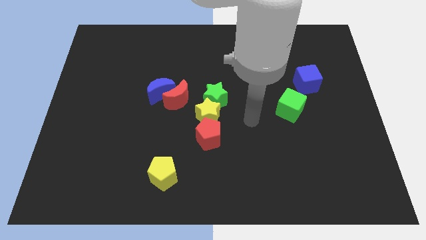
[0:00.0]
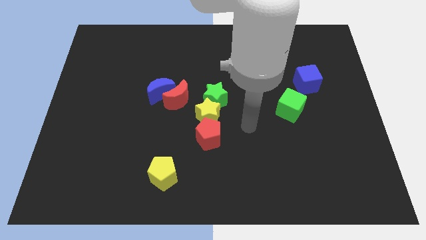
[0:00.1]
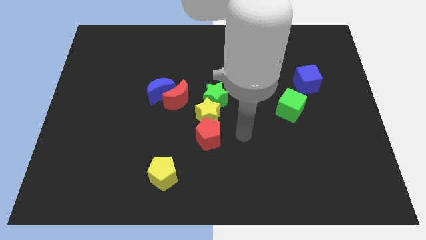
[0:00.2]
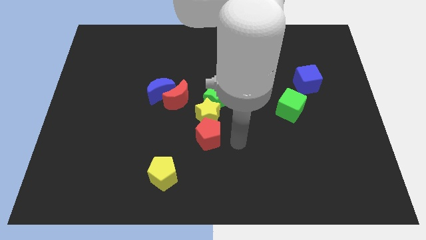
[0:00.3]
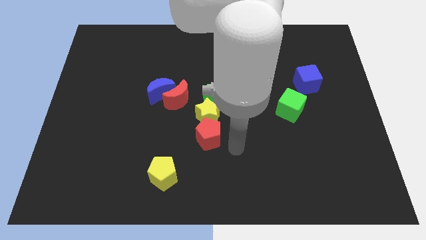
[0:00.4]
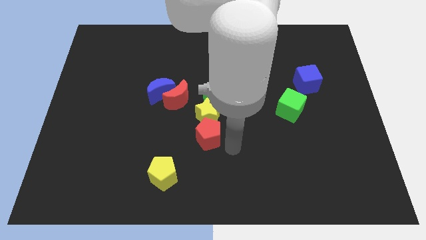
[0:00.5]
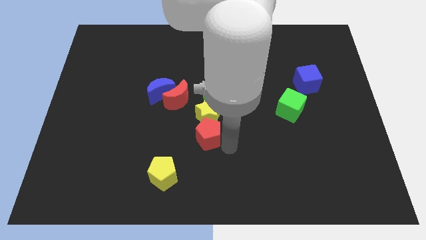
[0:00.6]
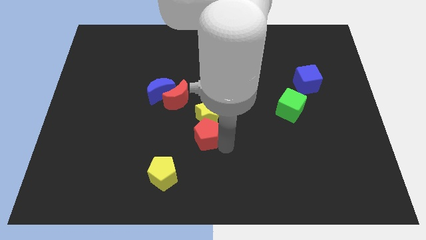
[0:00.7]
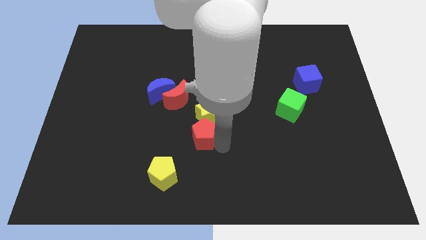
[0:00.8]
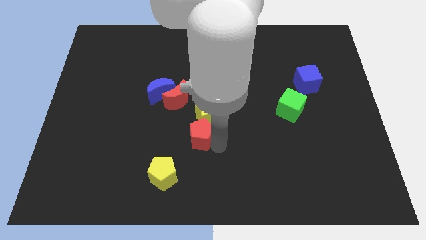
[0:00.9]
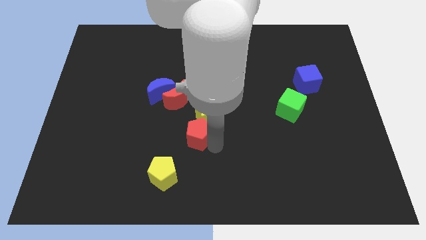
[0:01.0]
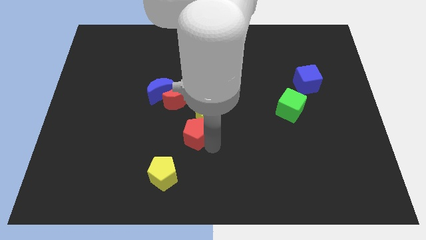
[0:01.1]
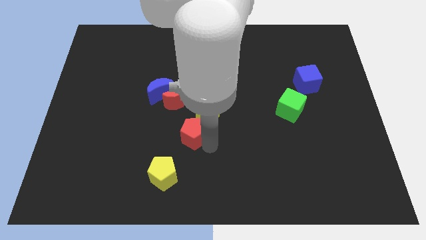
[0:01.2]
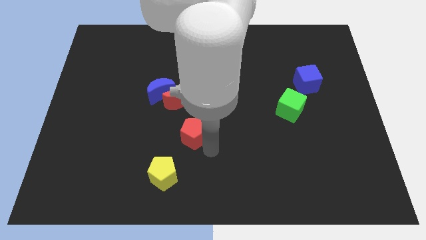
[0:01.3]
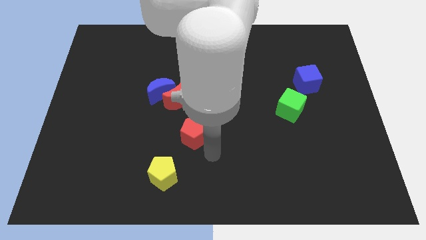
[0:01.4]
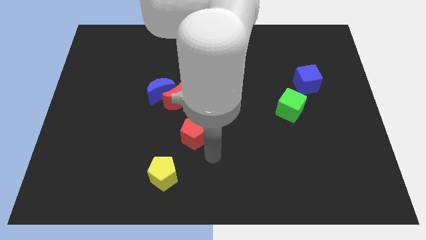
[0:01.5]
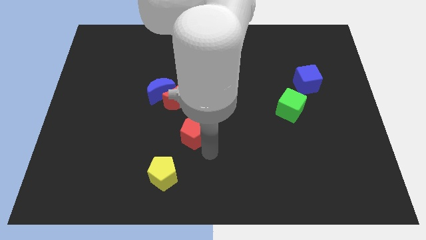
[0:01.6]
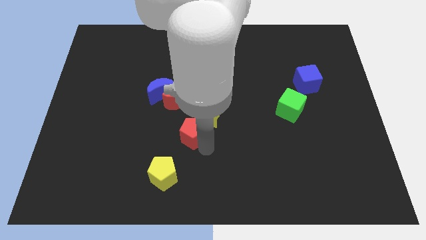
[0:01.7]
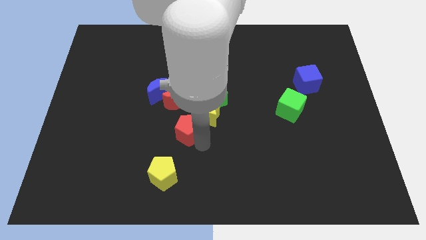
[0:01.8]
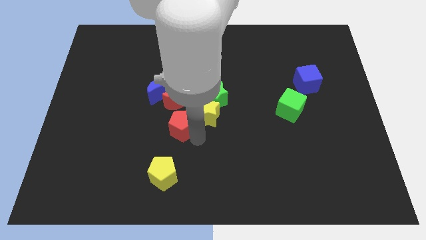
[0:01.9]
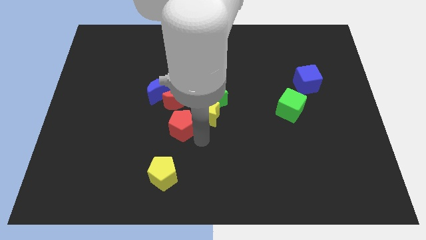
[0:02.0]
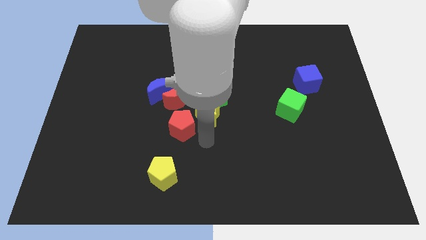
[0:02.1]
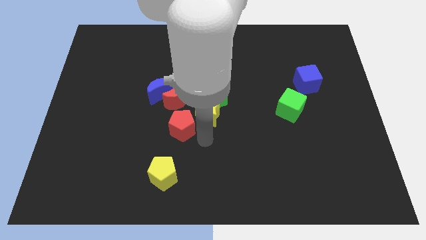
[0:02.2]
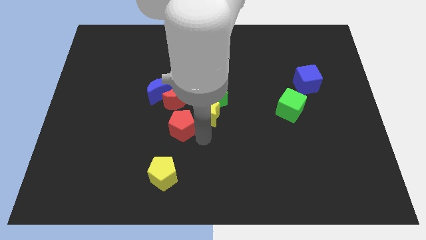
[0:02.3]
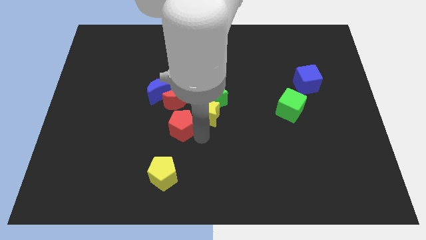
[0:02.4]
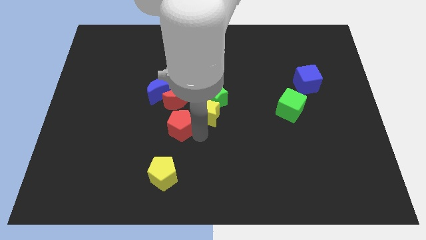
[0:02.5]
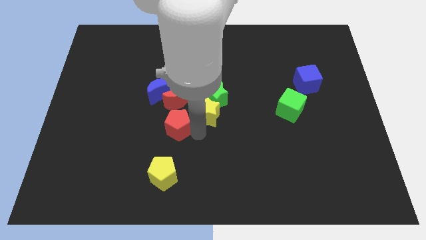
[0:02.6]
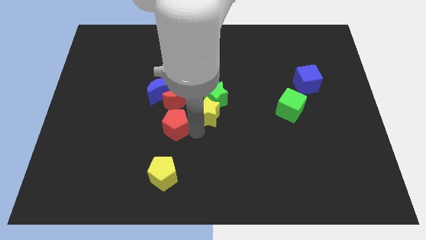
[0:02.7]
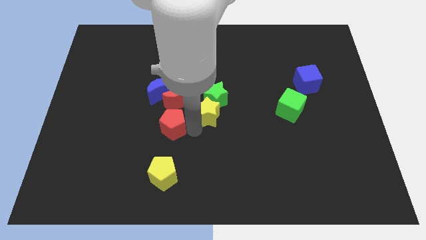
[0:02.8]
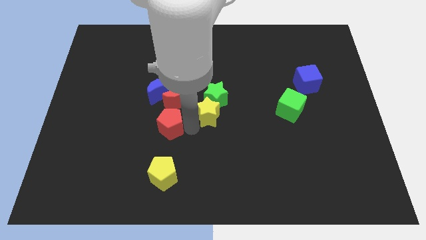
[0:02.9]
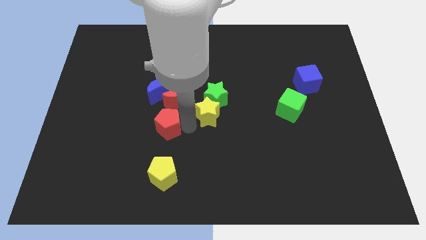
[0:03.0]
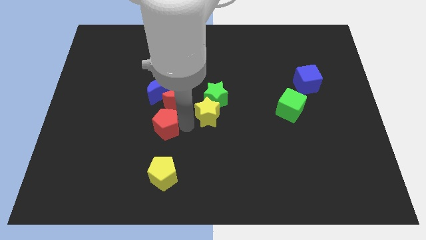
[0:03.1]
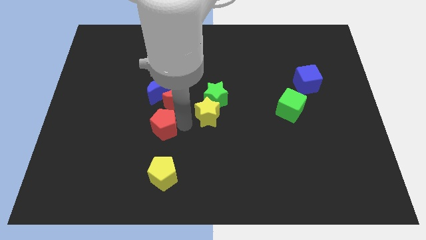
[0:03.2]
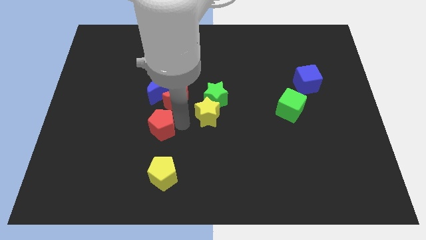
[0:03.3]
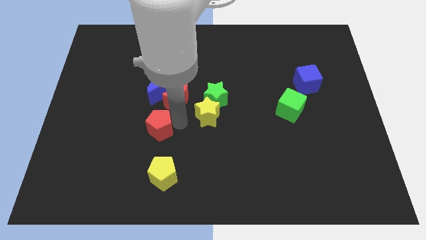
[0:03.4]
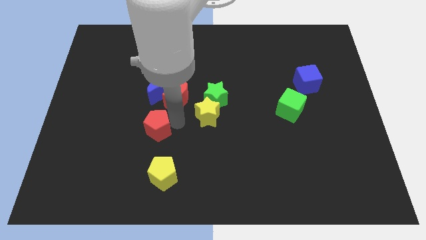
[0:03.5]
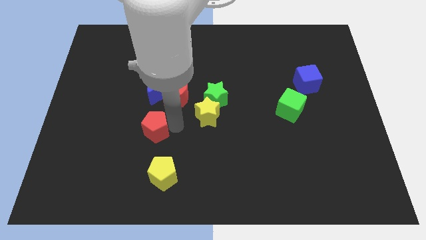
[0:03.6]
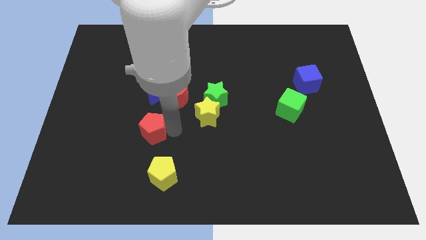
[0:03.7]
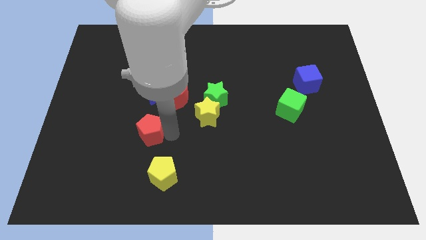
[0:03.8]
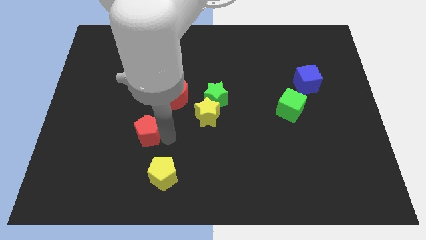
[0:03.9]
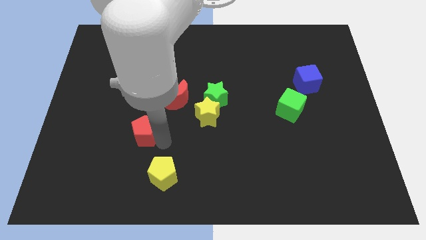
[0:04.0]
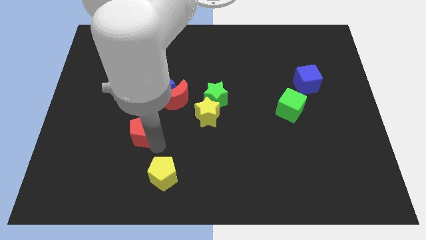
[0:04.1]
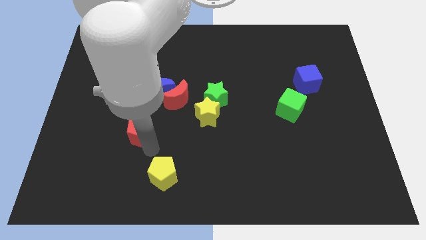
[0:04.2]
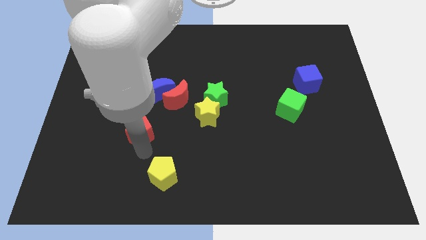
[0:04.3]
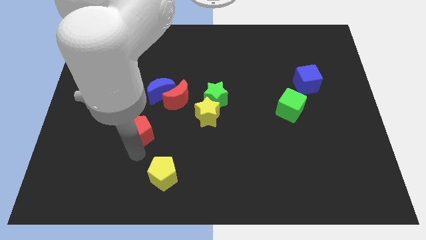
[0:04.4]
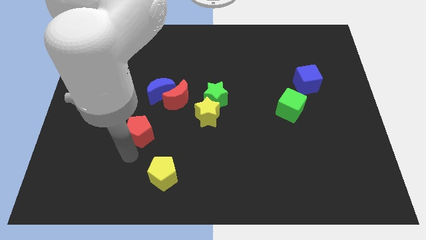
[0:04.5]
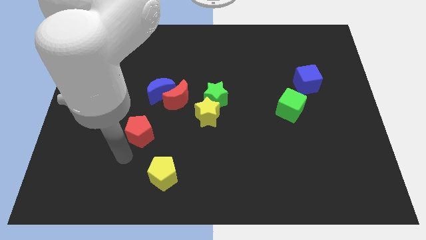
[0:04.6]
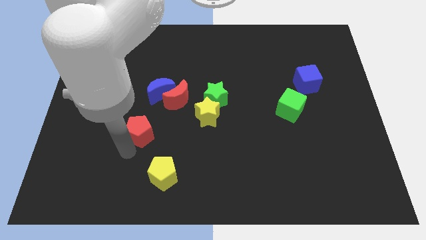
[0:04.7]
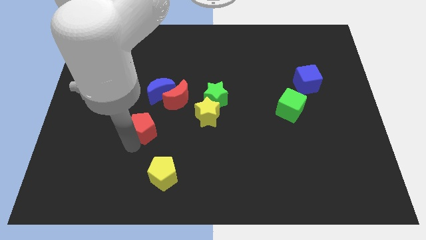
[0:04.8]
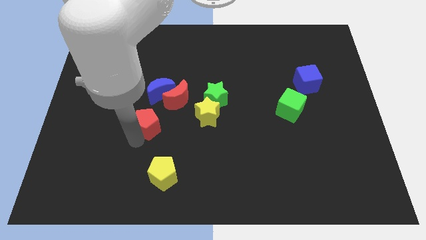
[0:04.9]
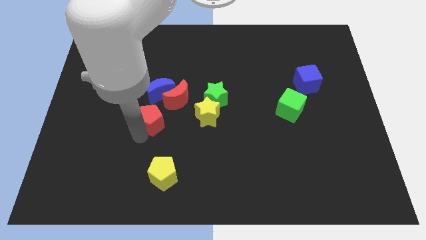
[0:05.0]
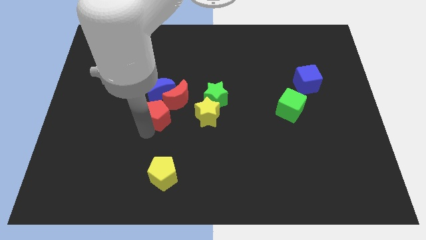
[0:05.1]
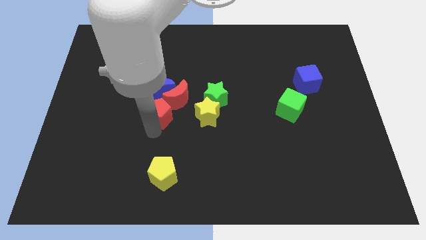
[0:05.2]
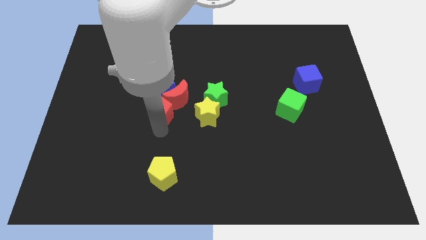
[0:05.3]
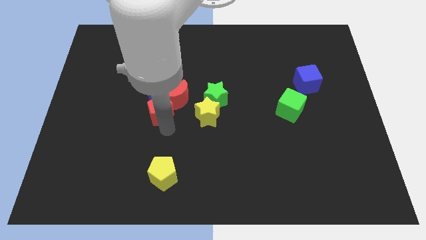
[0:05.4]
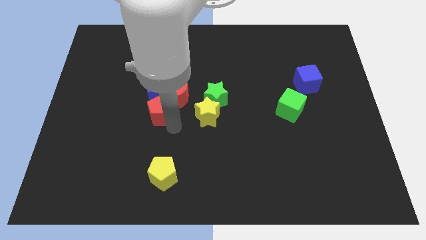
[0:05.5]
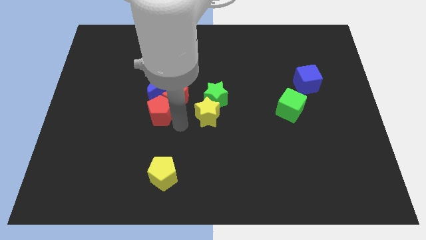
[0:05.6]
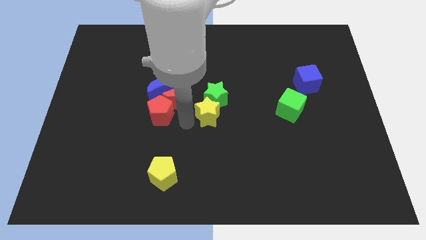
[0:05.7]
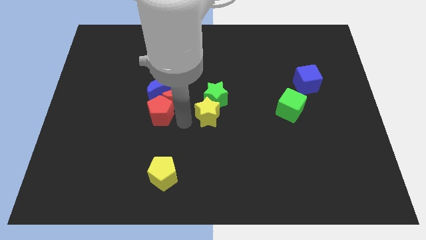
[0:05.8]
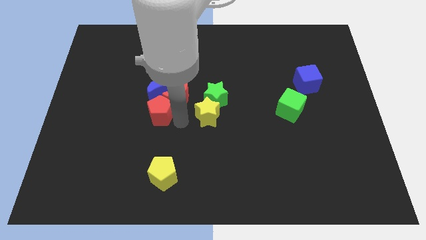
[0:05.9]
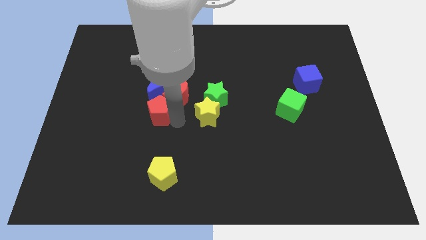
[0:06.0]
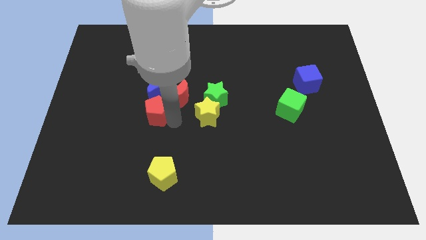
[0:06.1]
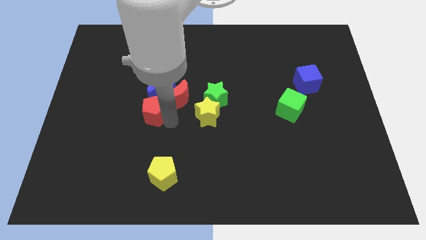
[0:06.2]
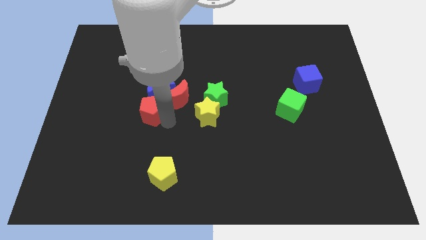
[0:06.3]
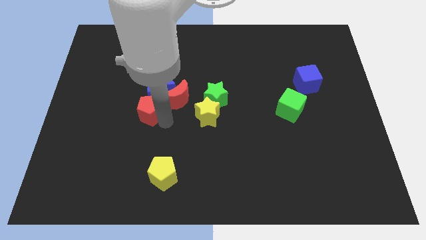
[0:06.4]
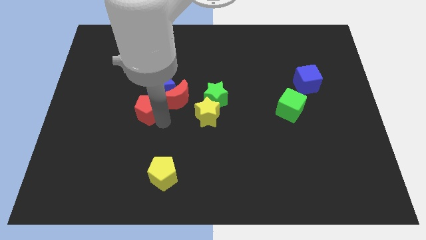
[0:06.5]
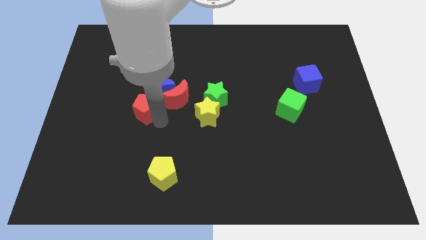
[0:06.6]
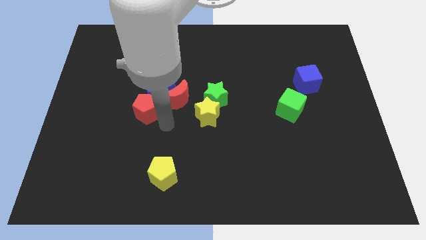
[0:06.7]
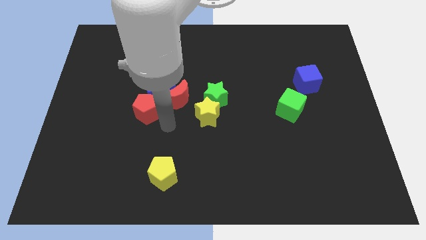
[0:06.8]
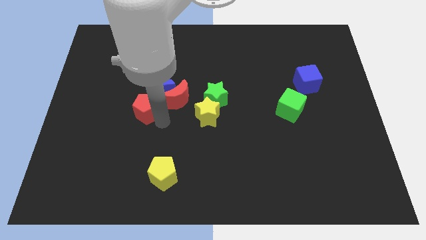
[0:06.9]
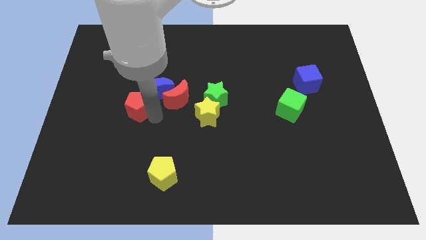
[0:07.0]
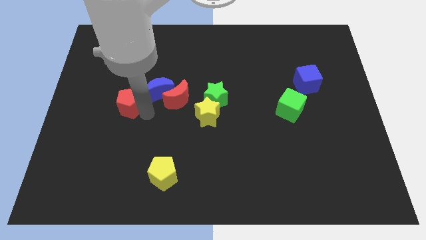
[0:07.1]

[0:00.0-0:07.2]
put the red pentagon left of the blue moon
